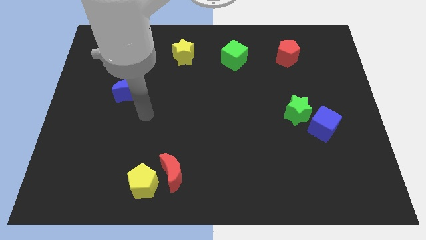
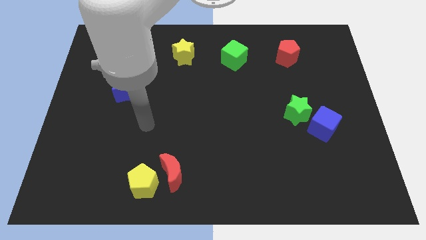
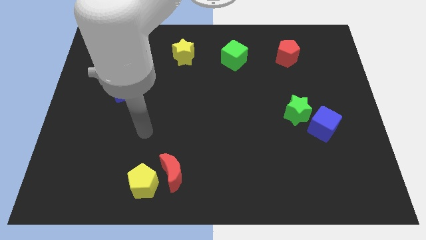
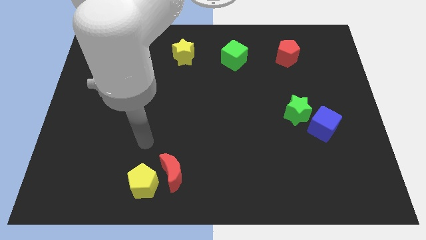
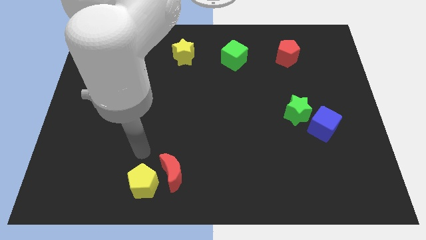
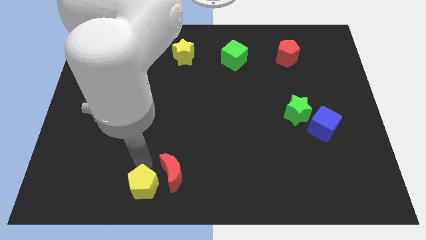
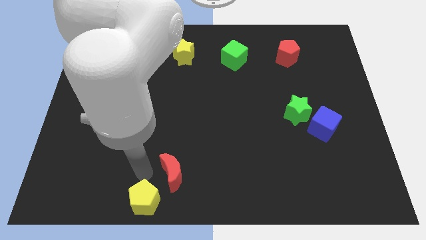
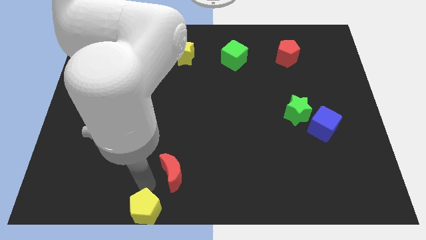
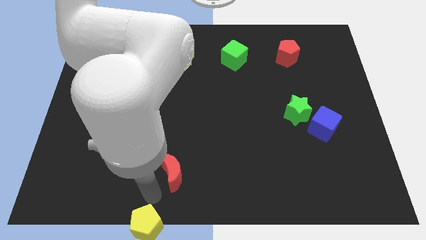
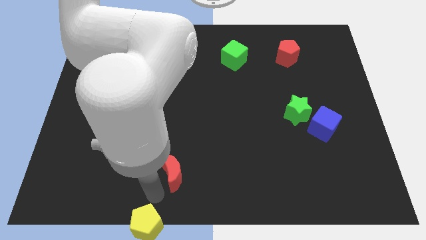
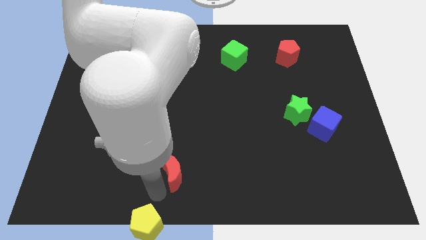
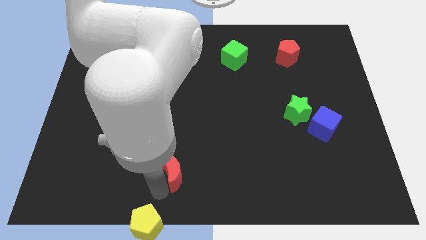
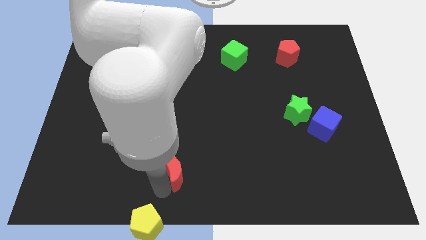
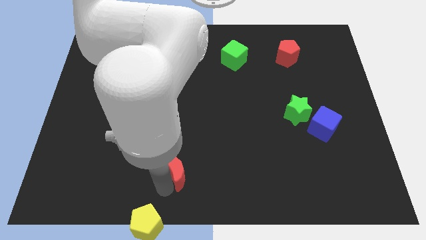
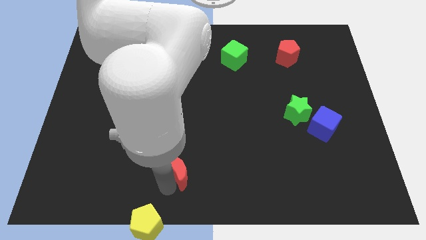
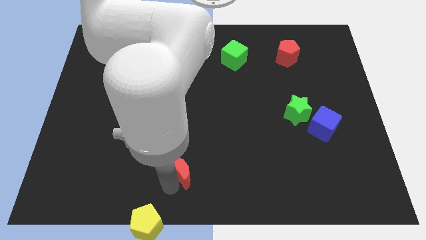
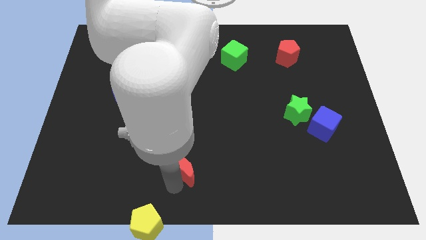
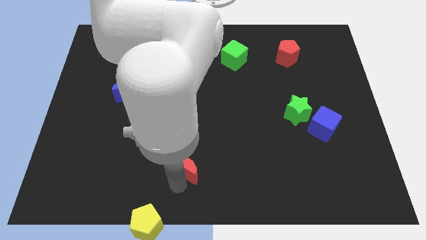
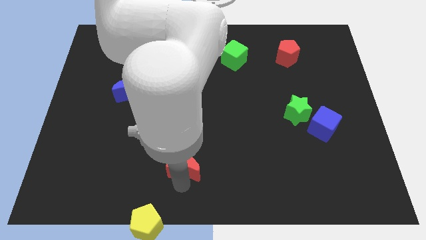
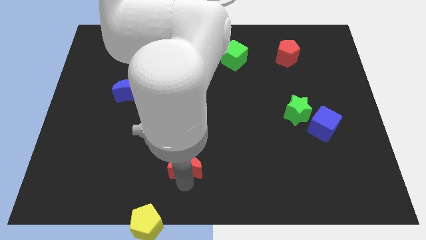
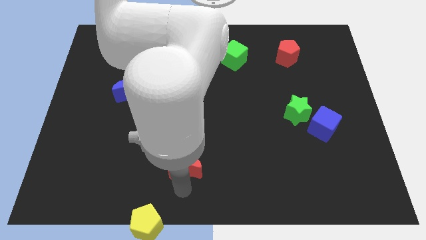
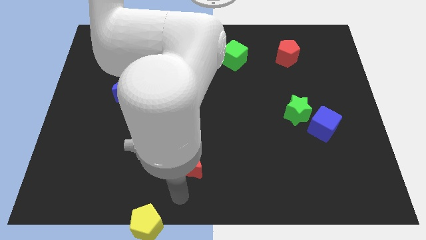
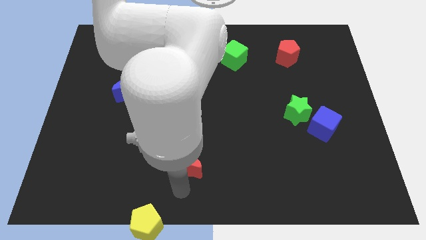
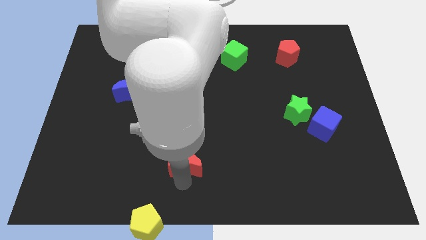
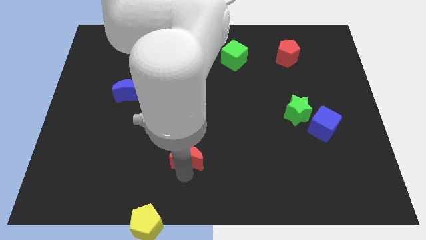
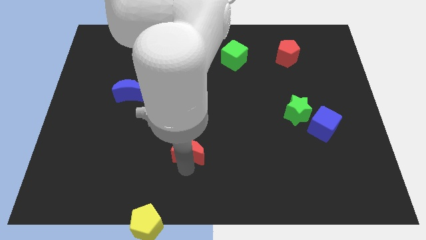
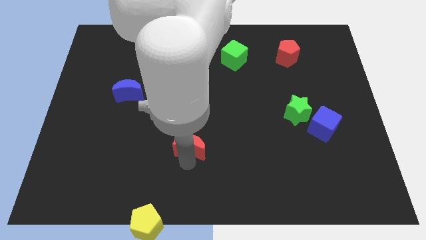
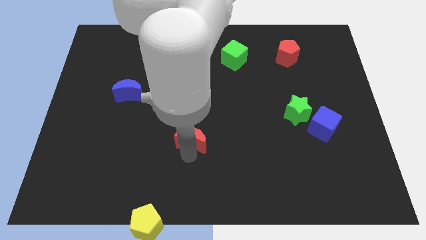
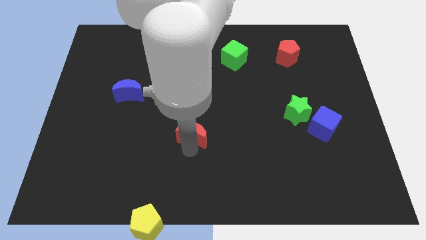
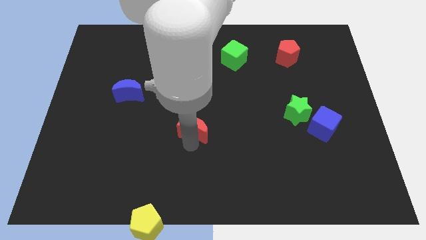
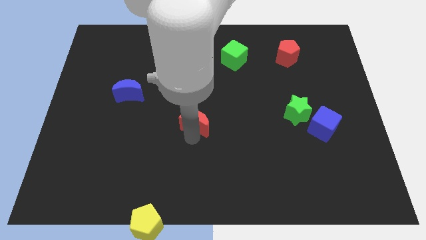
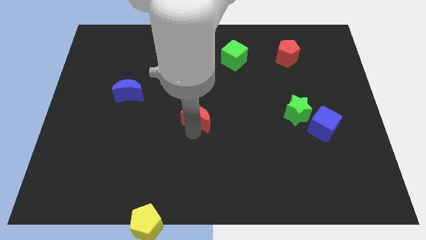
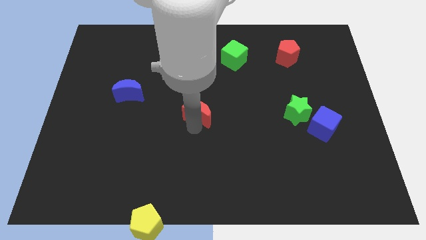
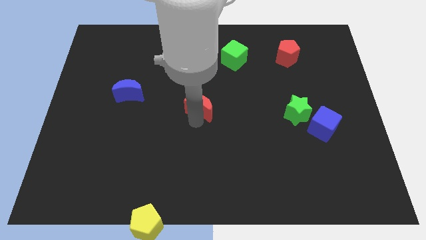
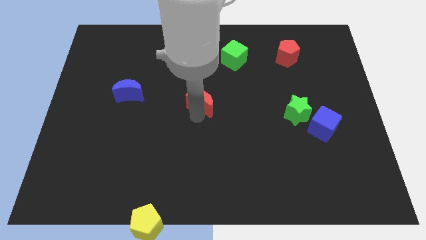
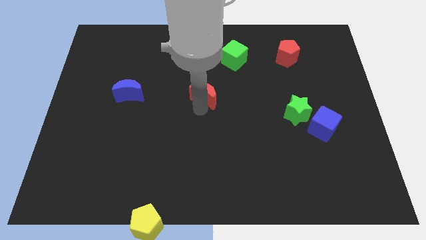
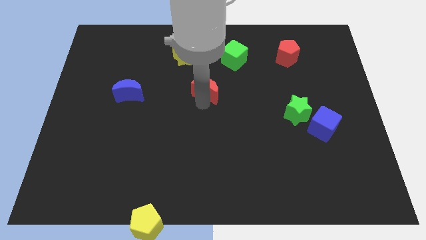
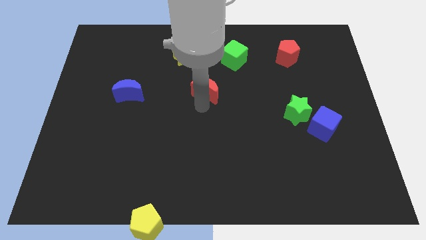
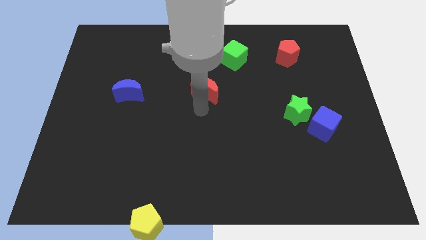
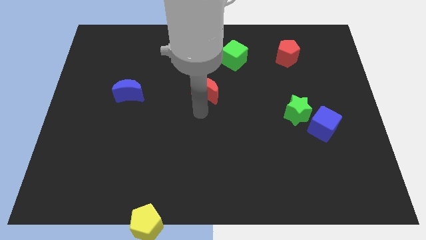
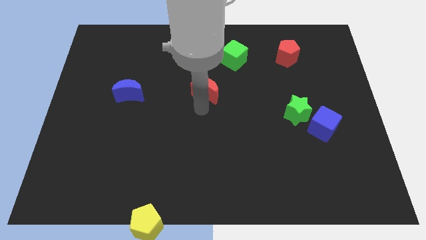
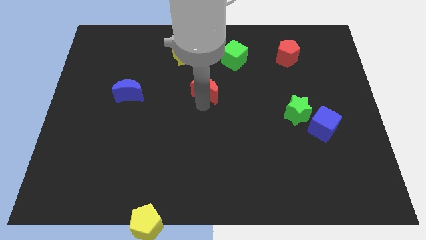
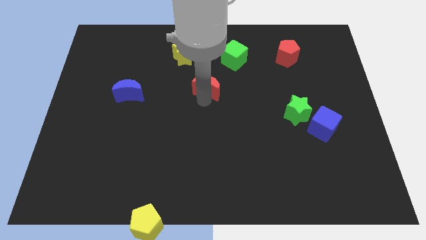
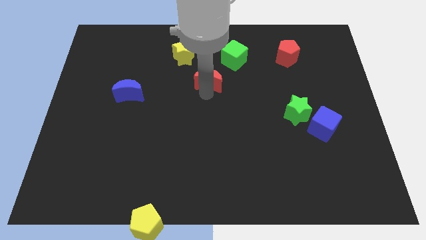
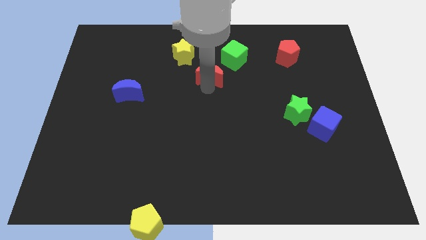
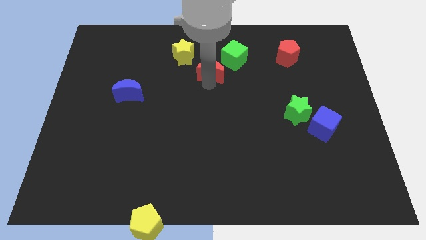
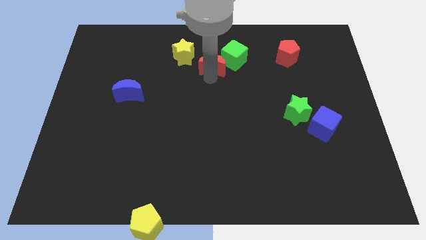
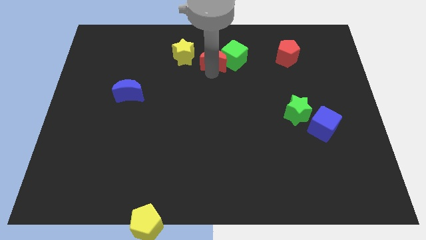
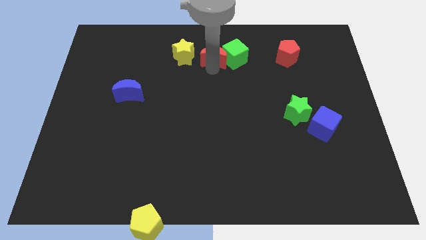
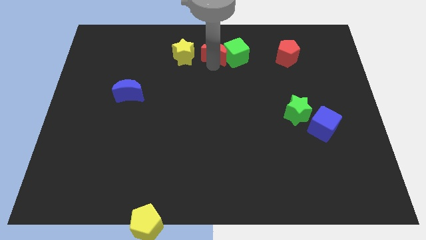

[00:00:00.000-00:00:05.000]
put the red moon to the towards your base

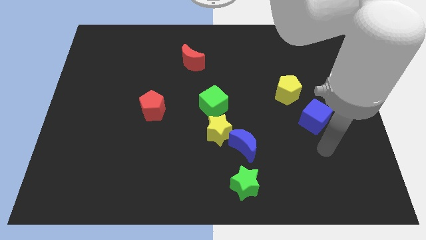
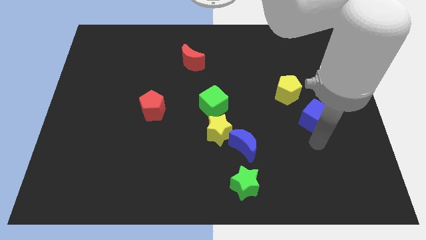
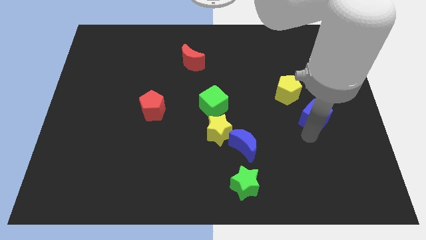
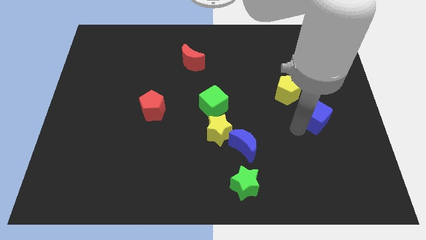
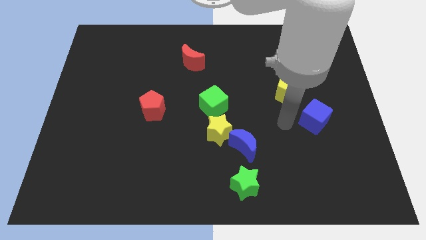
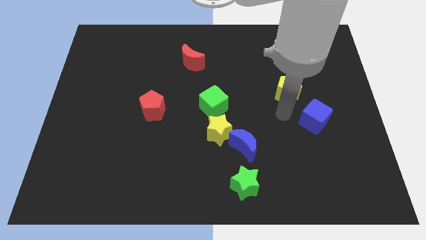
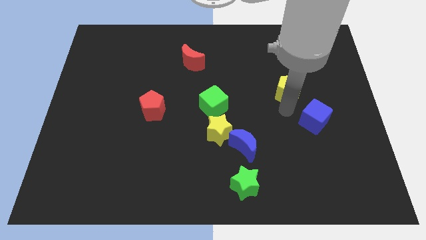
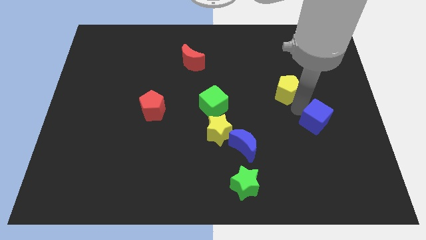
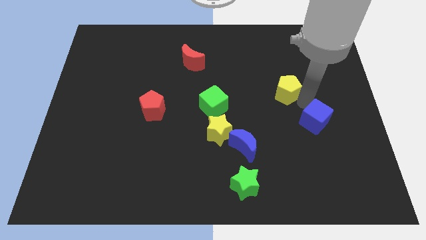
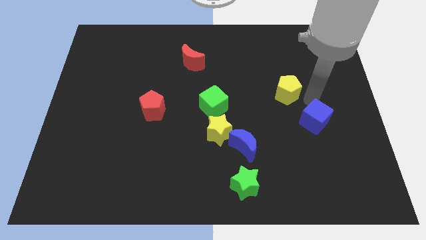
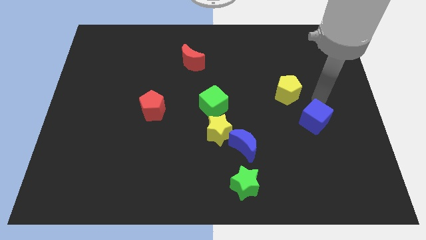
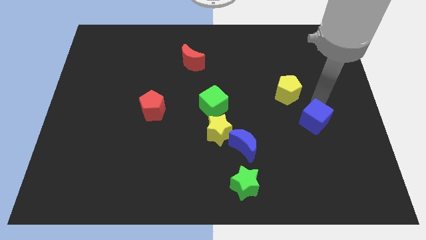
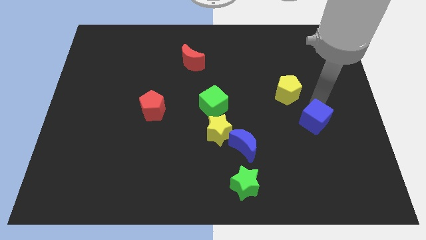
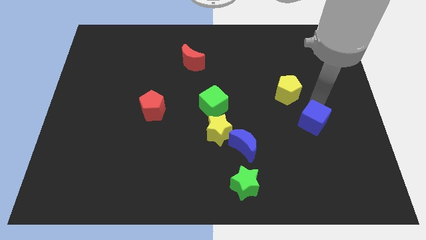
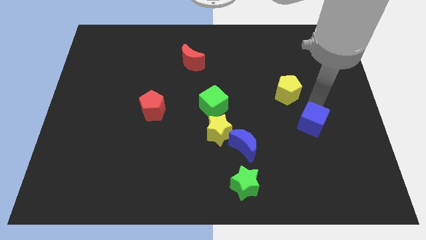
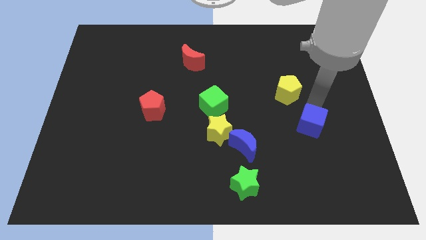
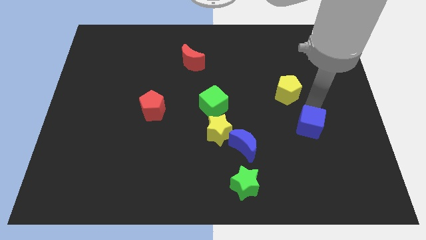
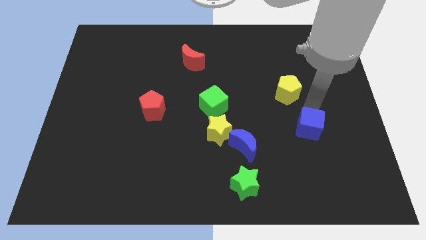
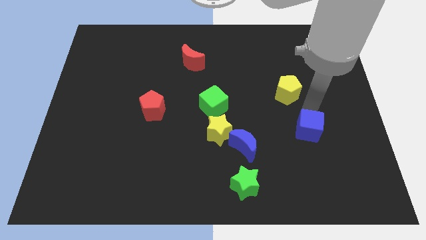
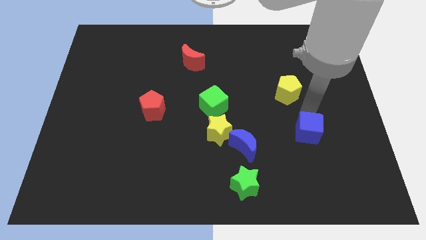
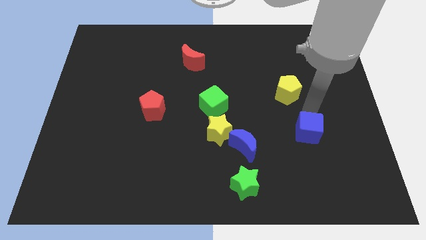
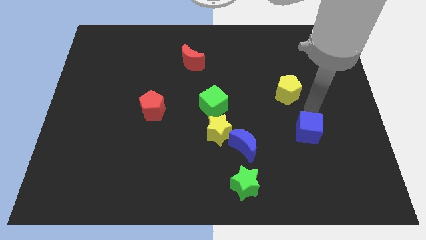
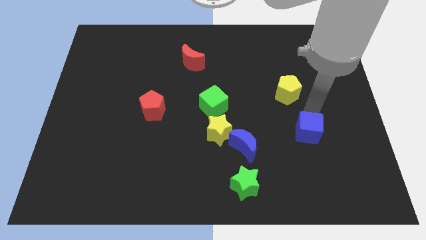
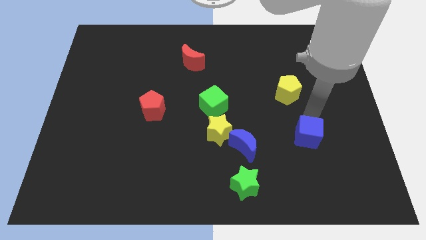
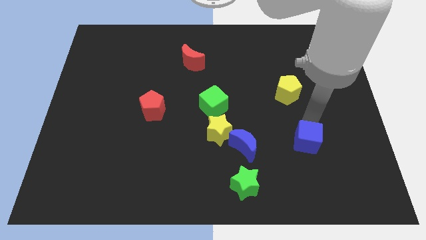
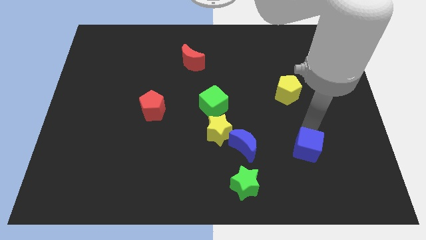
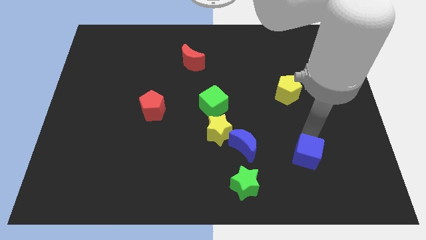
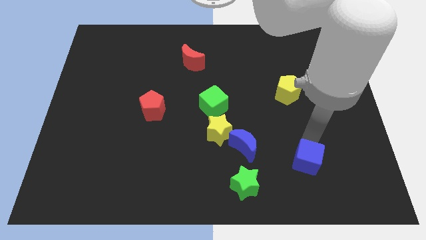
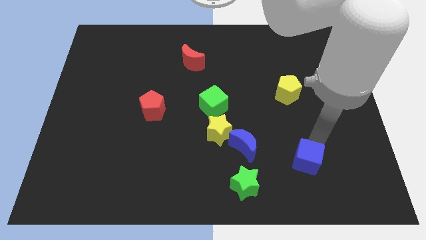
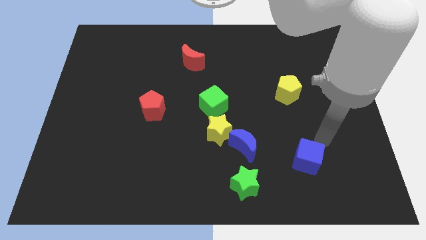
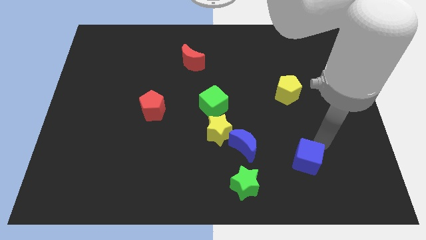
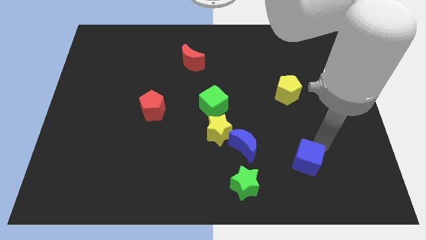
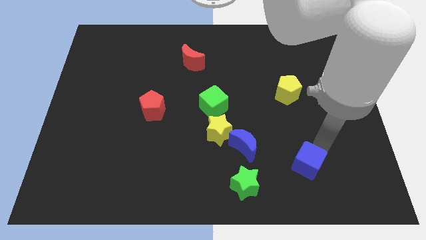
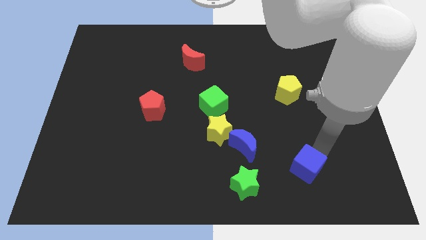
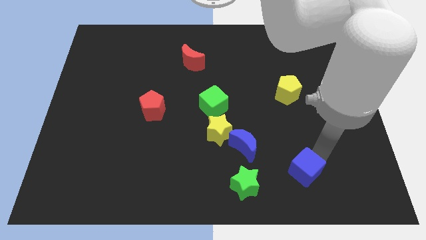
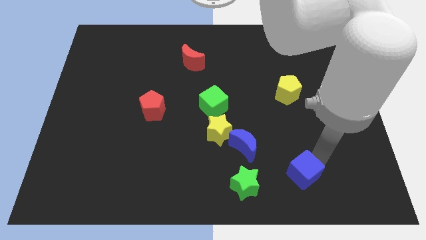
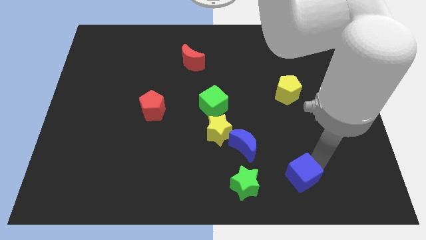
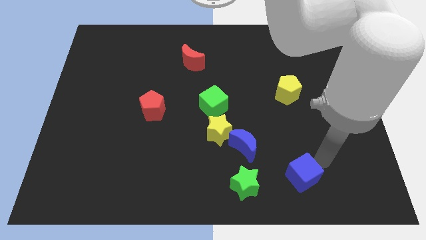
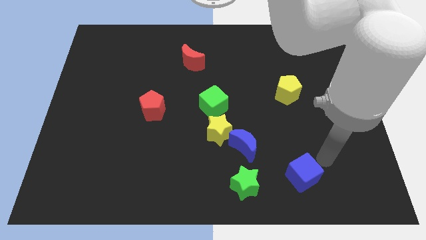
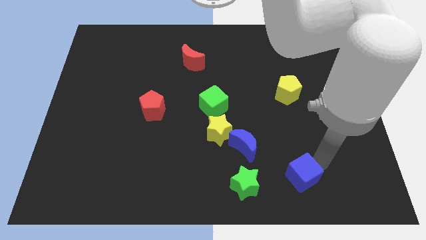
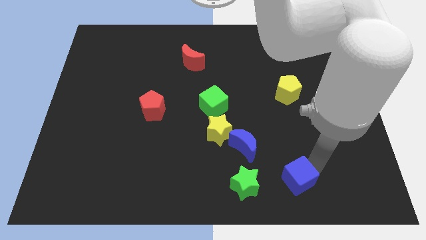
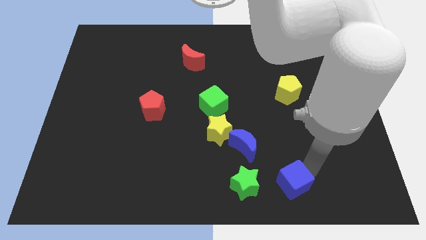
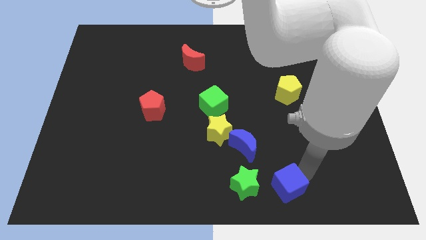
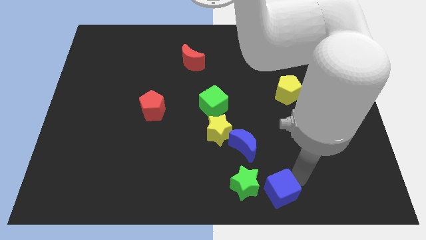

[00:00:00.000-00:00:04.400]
slide the blue cube to the bottom
